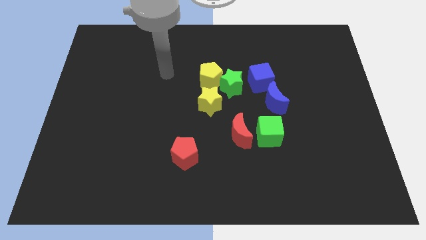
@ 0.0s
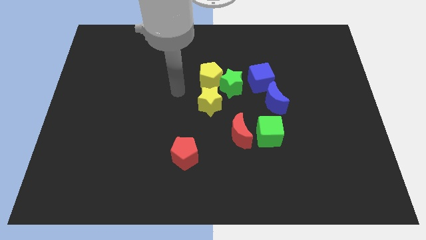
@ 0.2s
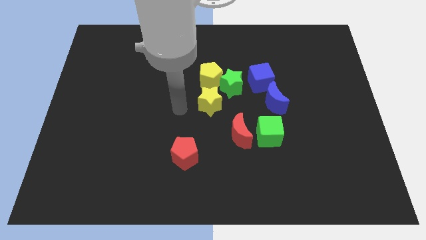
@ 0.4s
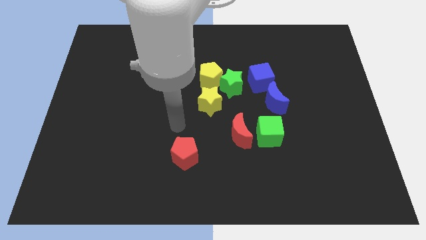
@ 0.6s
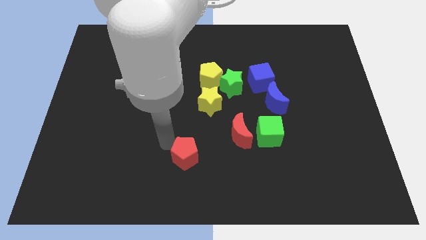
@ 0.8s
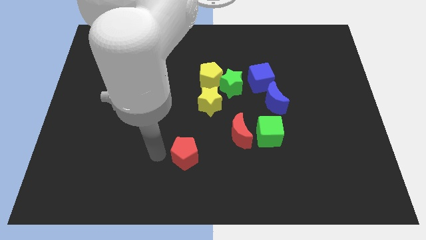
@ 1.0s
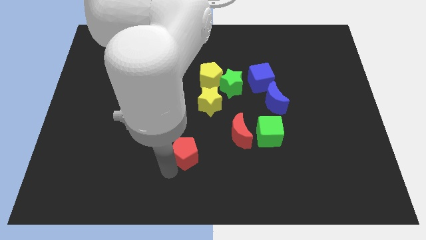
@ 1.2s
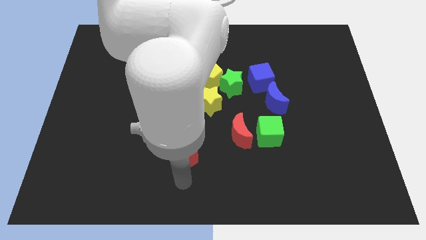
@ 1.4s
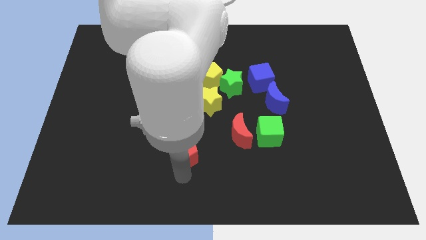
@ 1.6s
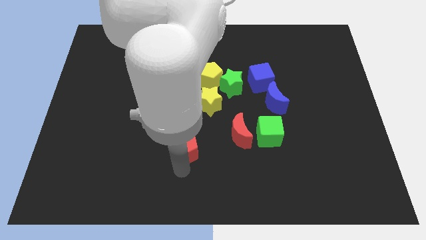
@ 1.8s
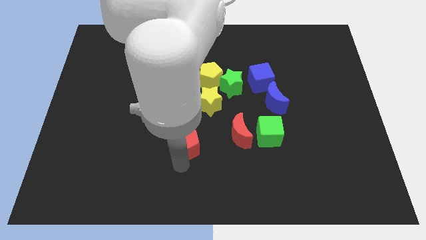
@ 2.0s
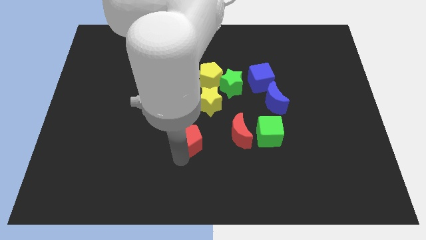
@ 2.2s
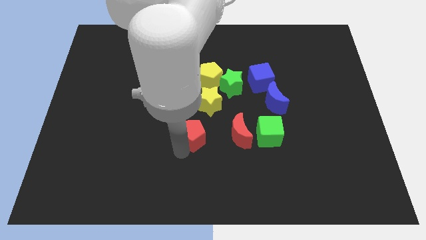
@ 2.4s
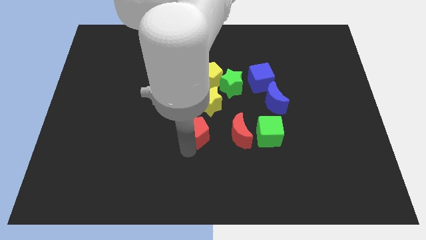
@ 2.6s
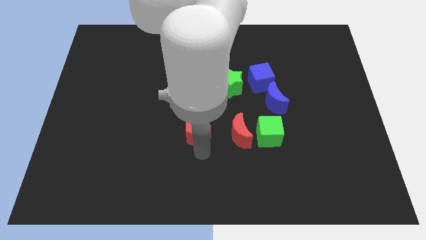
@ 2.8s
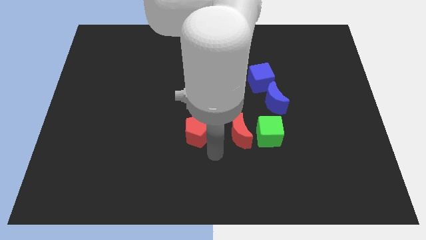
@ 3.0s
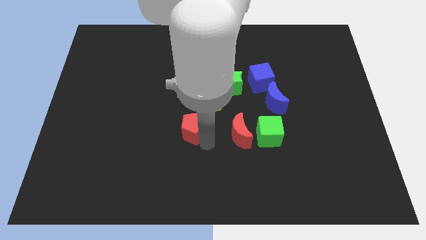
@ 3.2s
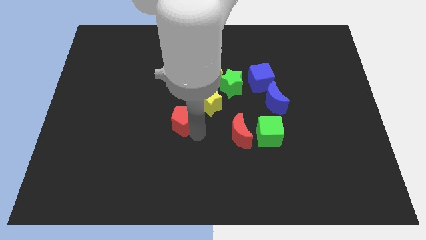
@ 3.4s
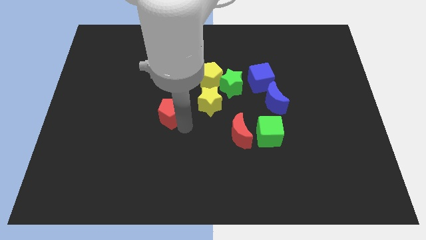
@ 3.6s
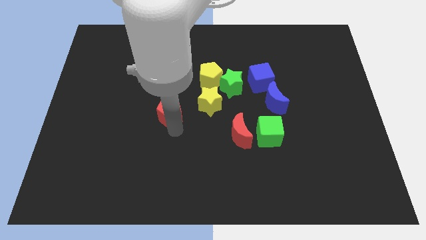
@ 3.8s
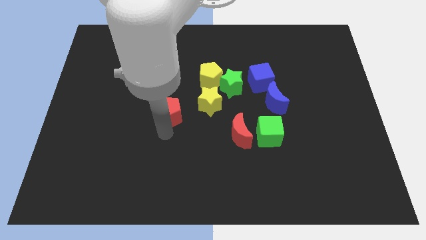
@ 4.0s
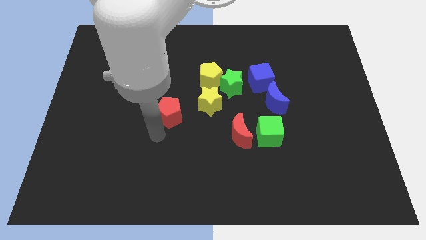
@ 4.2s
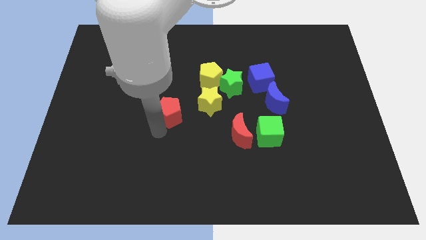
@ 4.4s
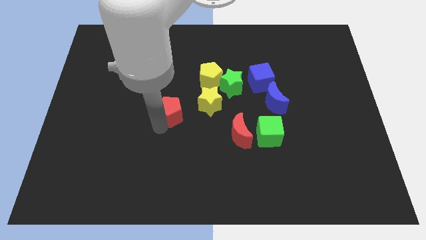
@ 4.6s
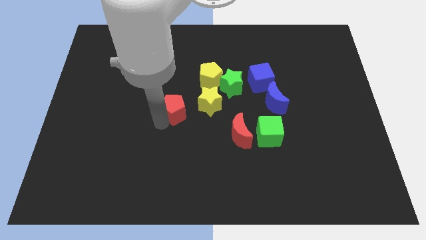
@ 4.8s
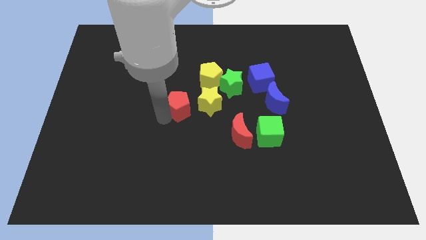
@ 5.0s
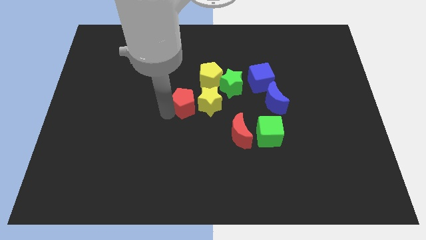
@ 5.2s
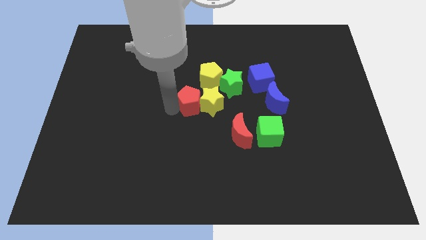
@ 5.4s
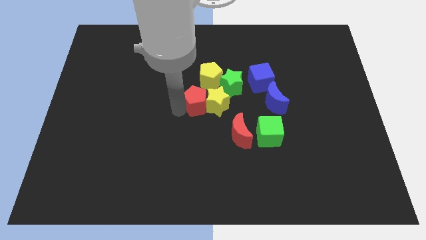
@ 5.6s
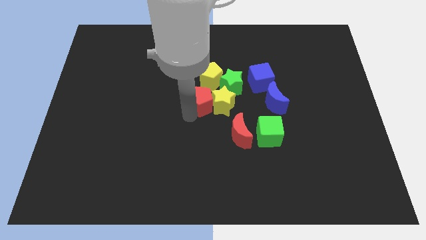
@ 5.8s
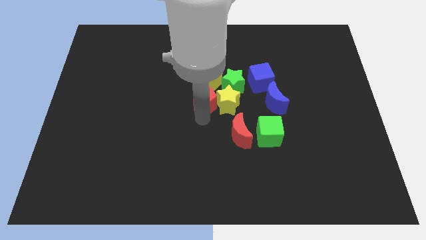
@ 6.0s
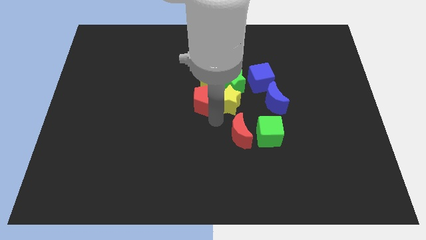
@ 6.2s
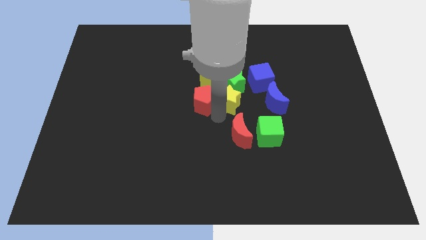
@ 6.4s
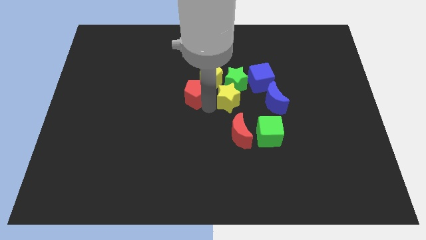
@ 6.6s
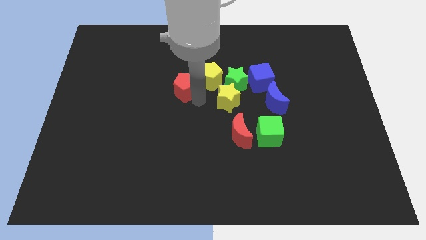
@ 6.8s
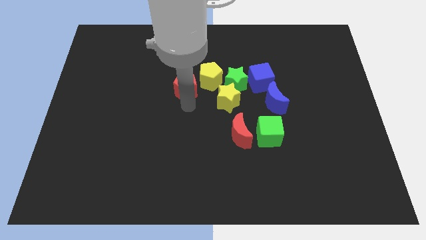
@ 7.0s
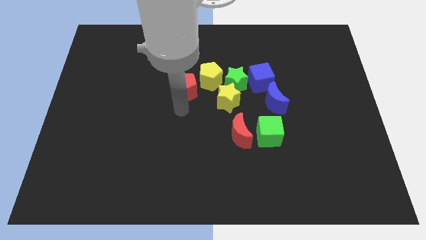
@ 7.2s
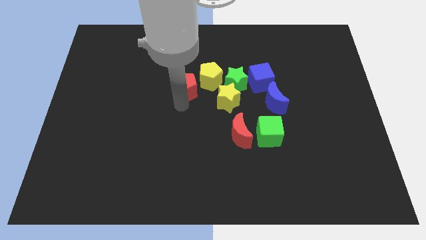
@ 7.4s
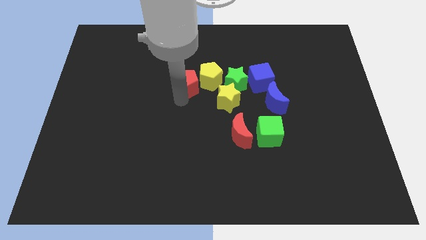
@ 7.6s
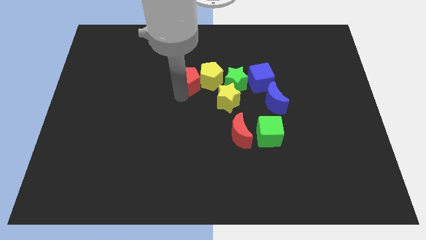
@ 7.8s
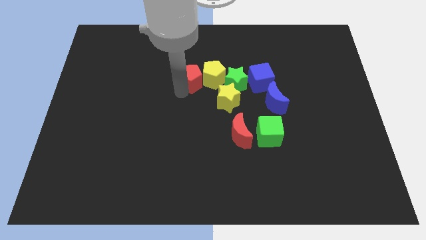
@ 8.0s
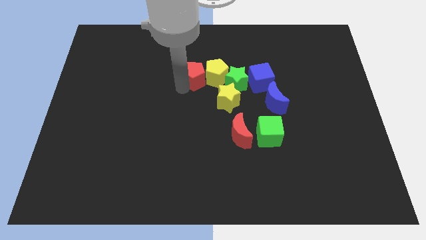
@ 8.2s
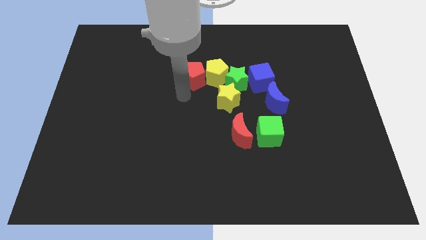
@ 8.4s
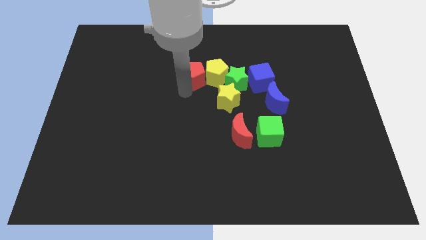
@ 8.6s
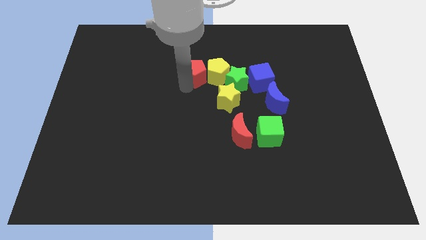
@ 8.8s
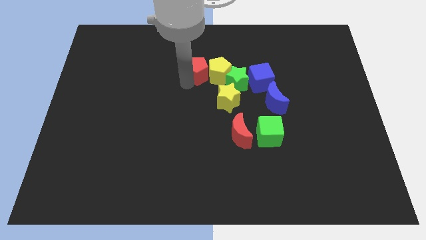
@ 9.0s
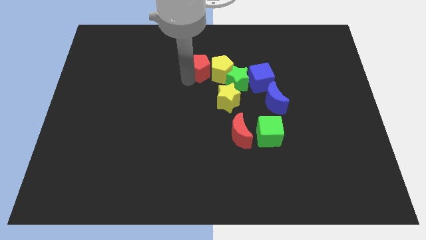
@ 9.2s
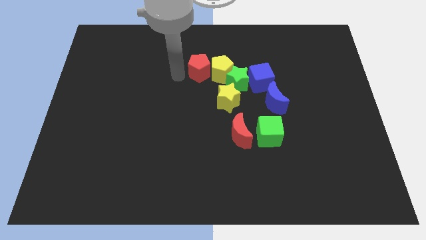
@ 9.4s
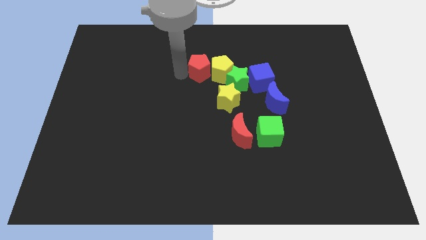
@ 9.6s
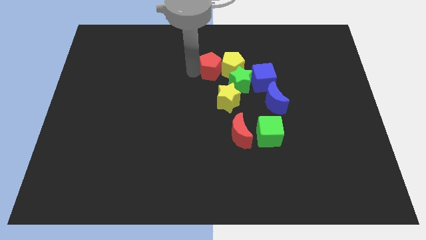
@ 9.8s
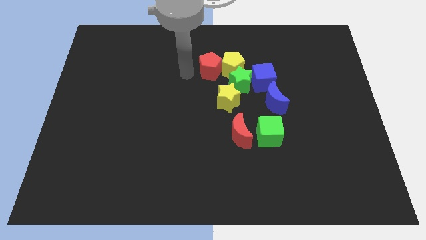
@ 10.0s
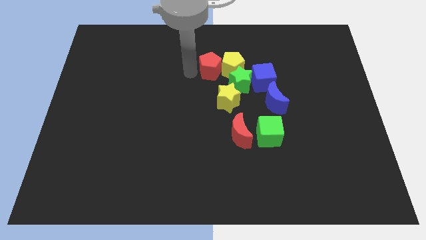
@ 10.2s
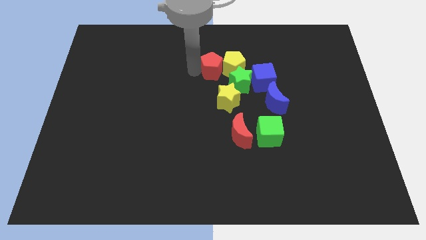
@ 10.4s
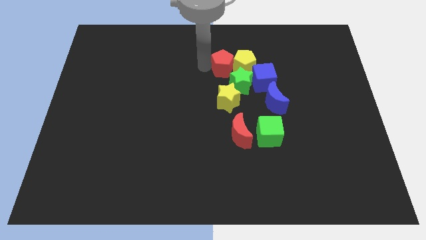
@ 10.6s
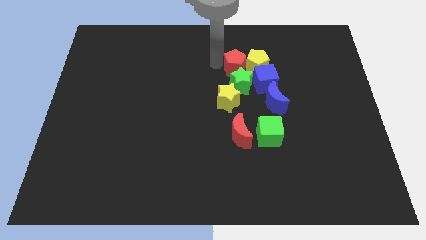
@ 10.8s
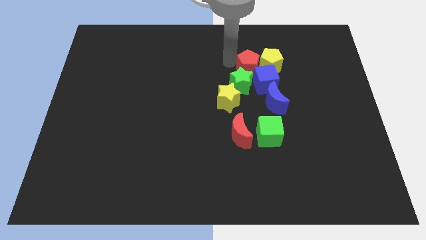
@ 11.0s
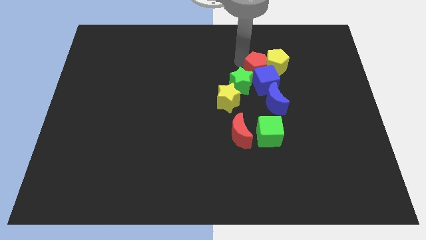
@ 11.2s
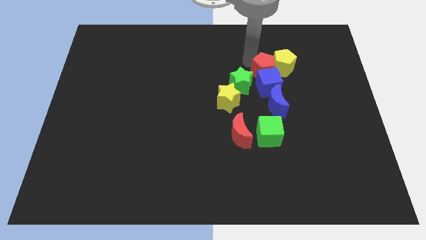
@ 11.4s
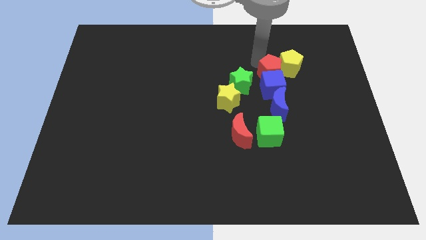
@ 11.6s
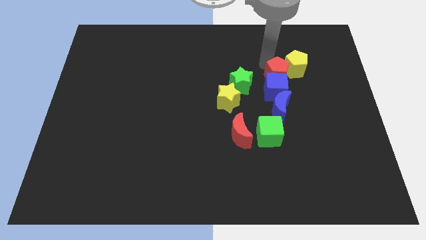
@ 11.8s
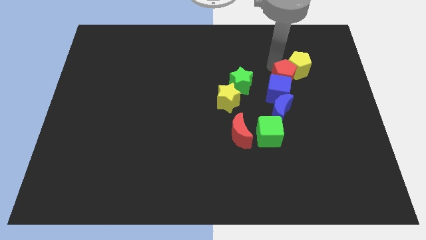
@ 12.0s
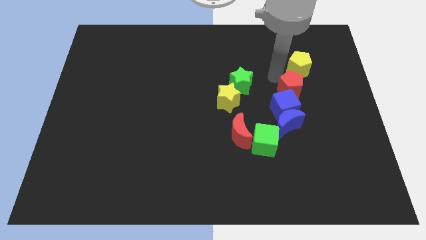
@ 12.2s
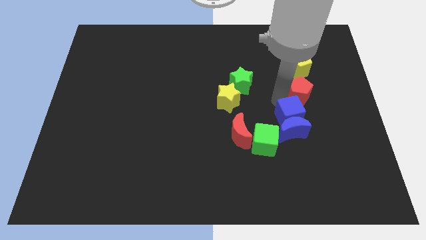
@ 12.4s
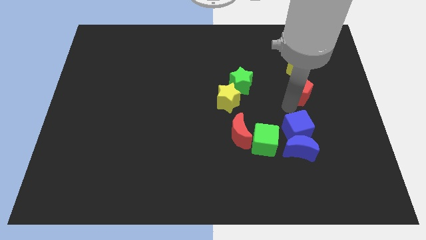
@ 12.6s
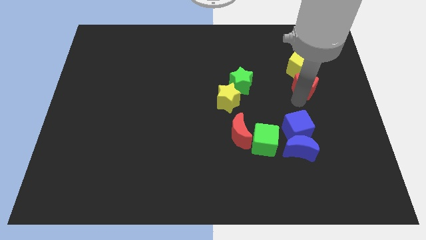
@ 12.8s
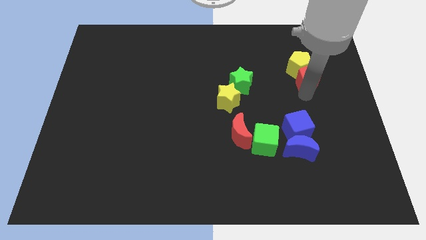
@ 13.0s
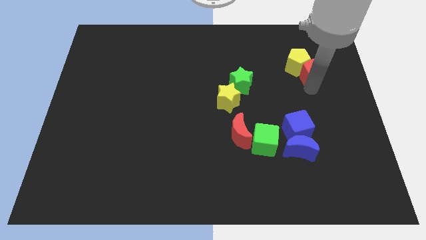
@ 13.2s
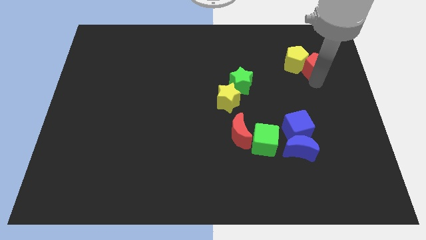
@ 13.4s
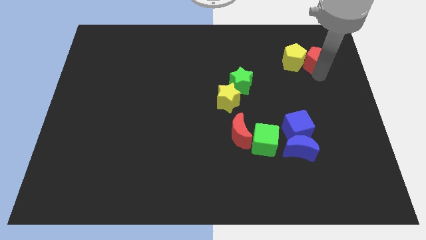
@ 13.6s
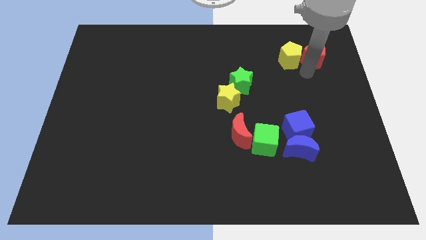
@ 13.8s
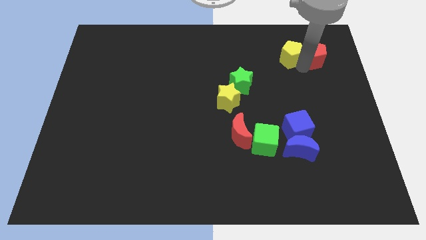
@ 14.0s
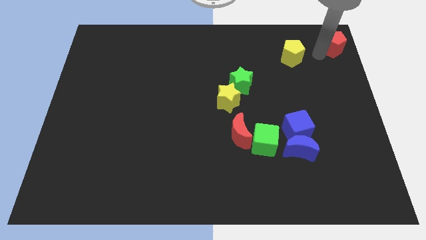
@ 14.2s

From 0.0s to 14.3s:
push the red pentagon to the upper right corner
